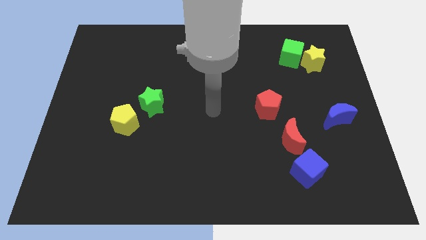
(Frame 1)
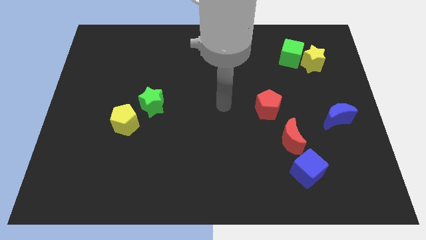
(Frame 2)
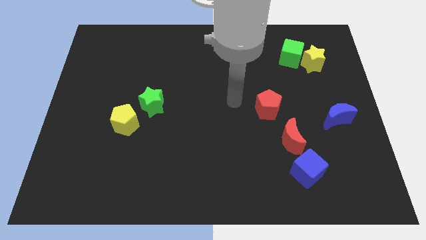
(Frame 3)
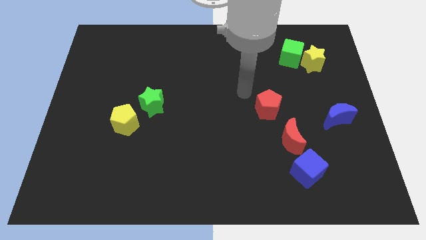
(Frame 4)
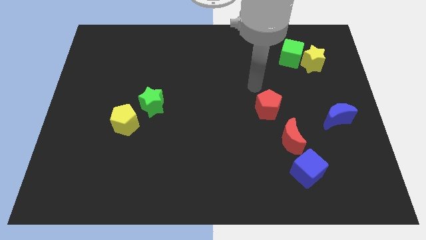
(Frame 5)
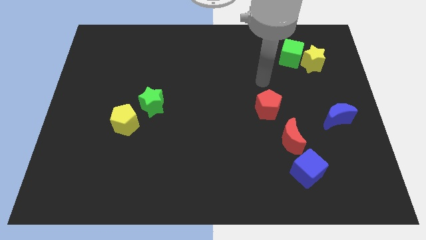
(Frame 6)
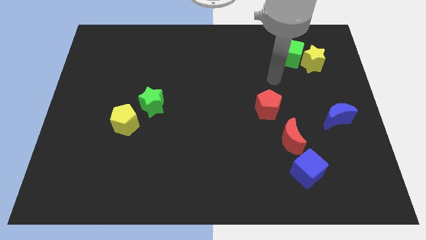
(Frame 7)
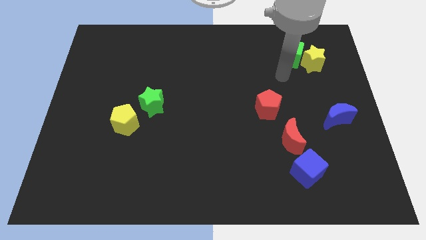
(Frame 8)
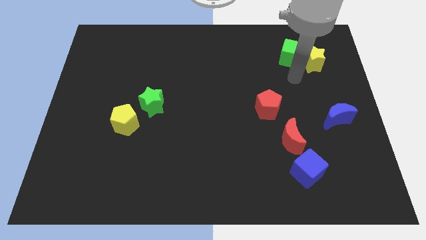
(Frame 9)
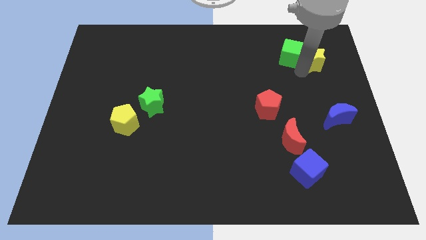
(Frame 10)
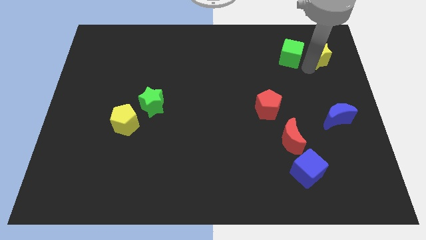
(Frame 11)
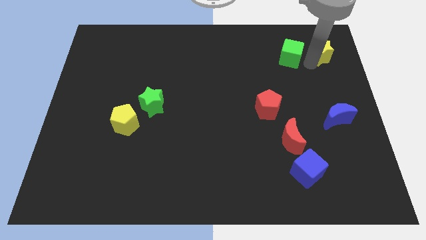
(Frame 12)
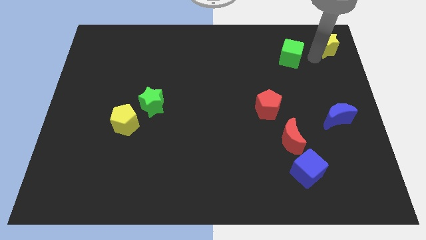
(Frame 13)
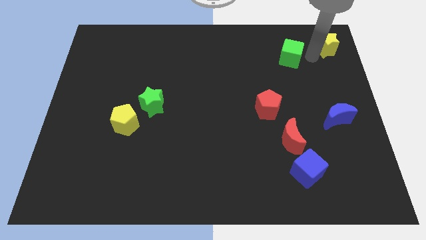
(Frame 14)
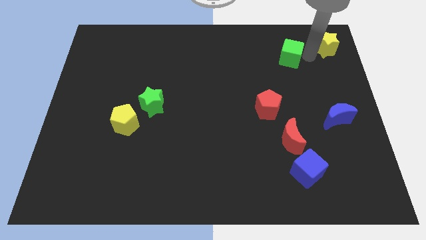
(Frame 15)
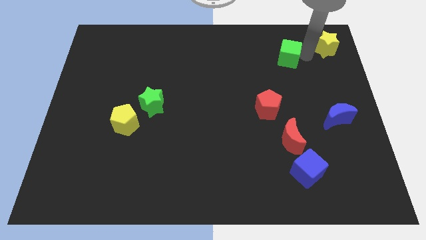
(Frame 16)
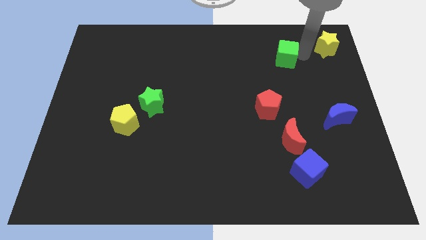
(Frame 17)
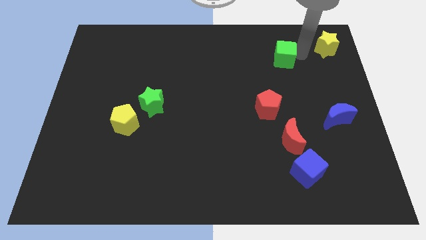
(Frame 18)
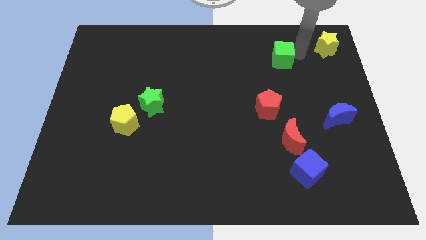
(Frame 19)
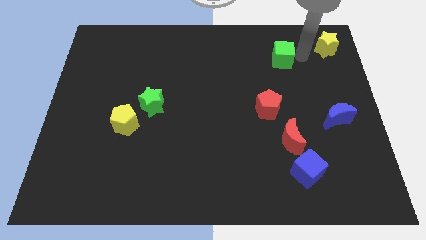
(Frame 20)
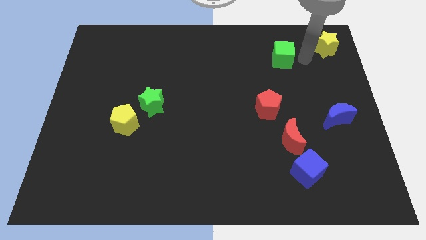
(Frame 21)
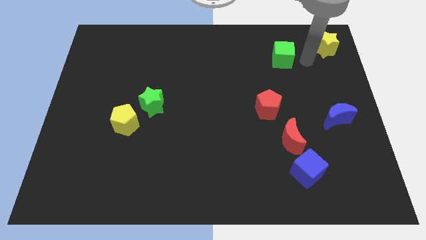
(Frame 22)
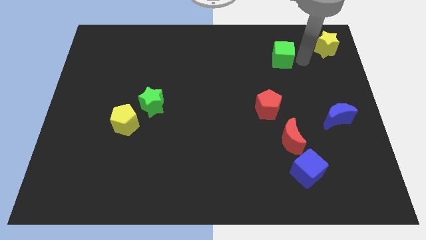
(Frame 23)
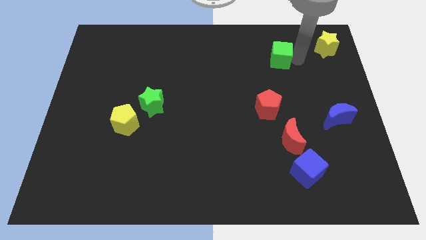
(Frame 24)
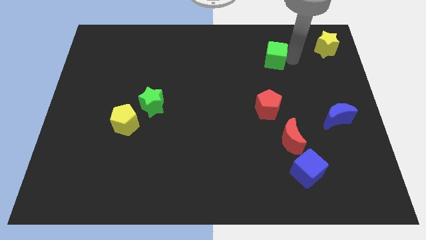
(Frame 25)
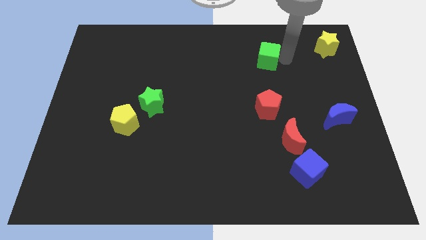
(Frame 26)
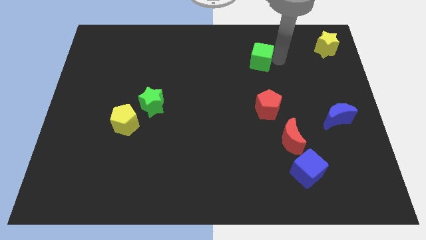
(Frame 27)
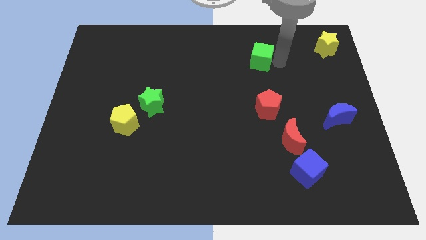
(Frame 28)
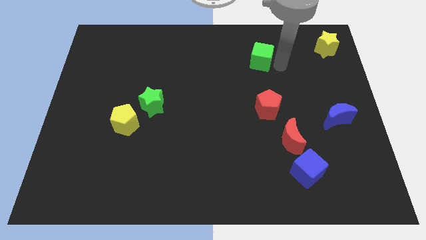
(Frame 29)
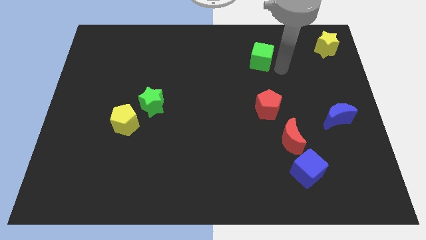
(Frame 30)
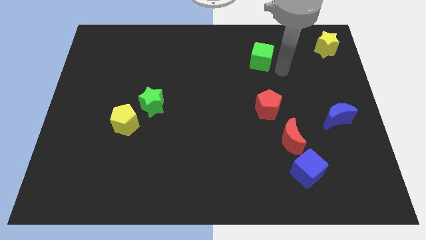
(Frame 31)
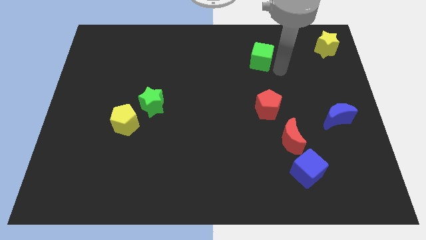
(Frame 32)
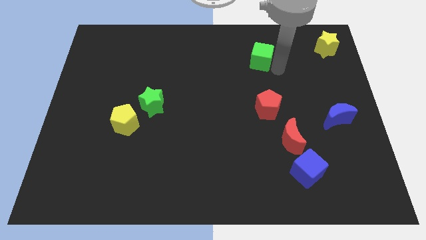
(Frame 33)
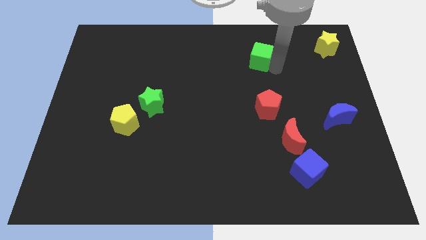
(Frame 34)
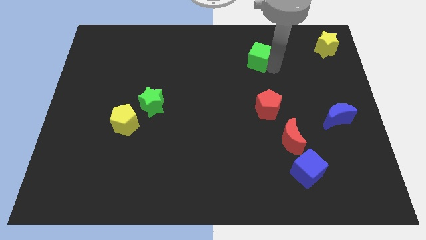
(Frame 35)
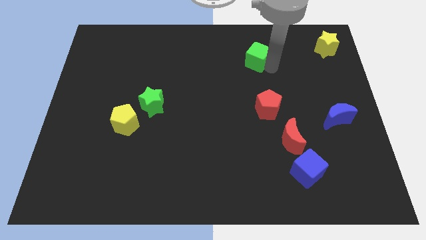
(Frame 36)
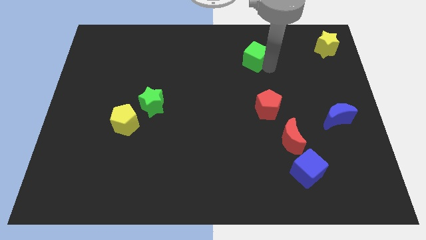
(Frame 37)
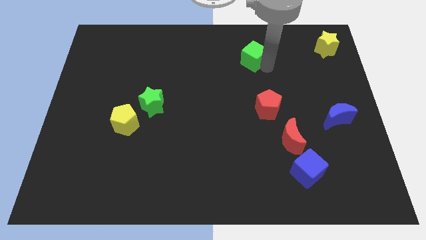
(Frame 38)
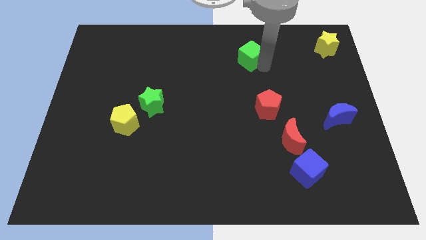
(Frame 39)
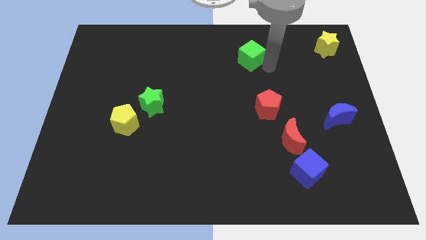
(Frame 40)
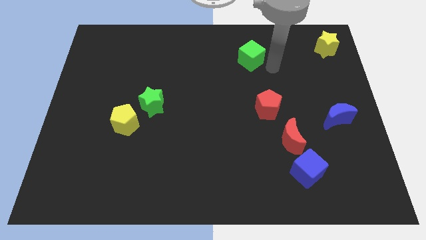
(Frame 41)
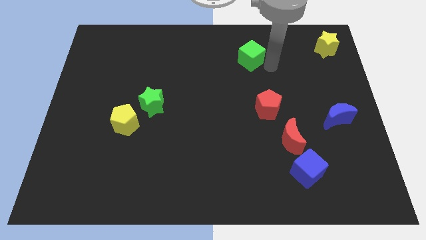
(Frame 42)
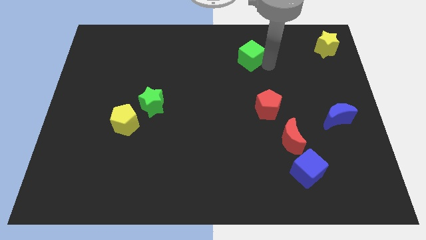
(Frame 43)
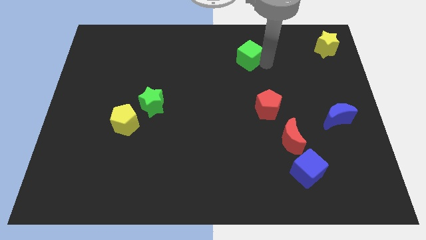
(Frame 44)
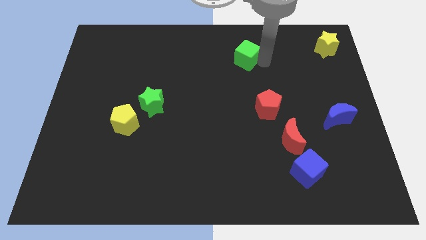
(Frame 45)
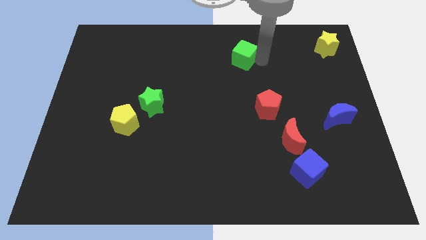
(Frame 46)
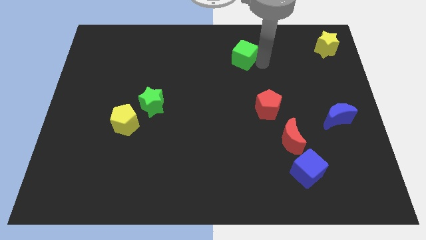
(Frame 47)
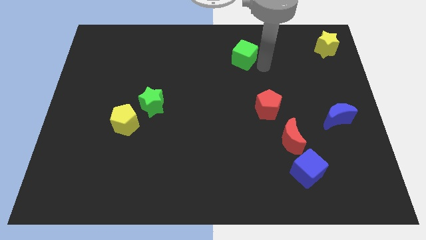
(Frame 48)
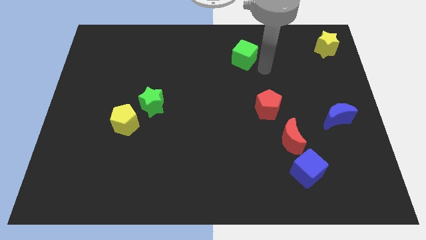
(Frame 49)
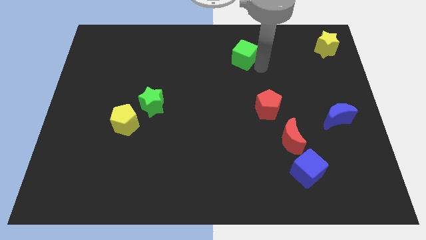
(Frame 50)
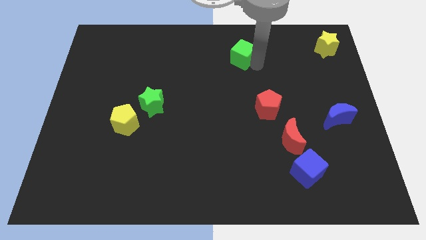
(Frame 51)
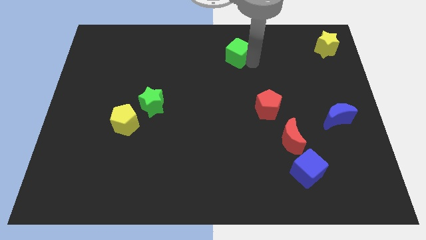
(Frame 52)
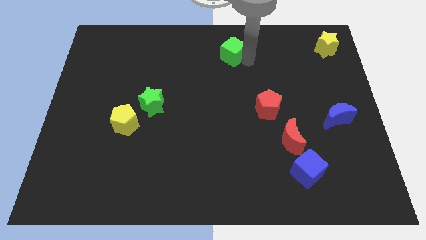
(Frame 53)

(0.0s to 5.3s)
move the green cube to the top

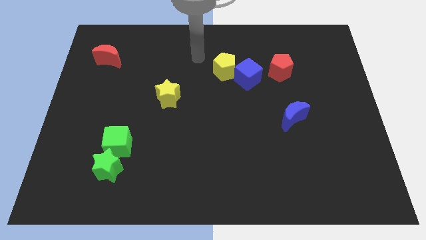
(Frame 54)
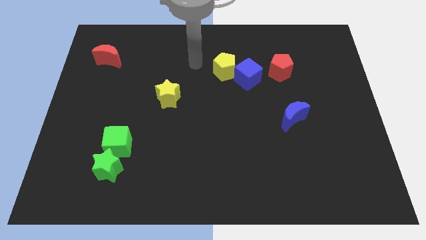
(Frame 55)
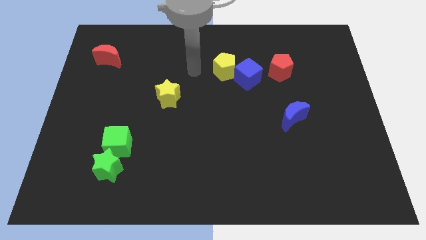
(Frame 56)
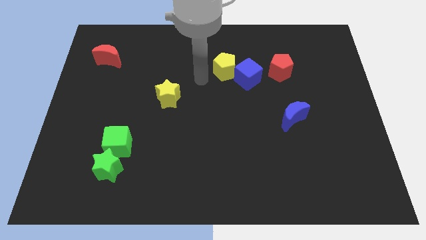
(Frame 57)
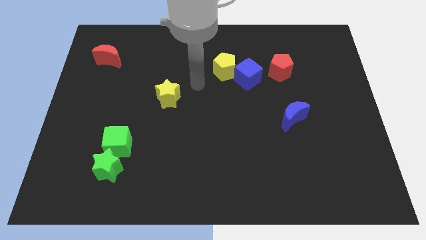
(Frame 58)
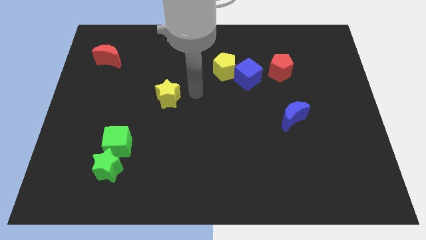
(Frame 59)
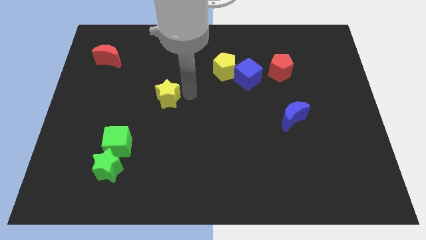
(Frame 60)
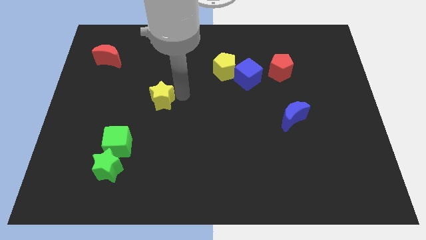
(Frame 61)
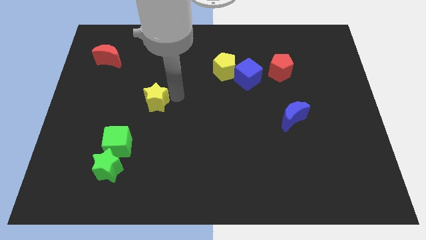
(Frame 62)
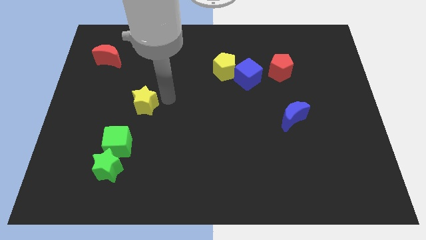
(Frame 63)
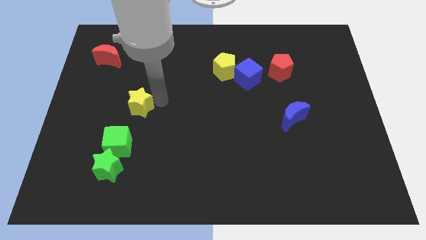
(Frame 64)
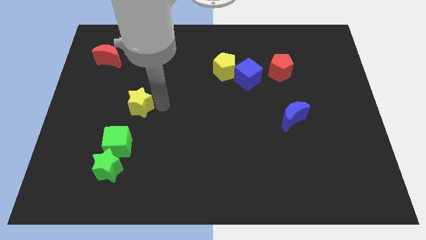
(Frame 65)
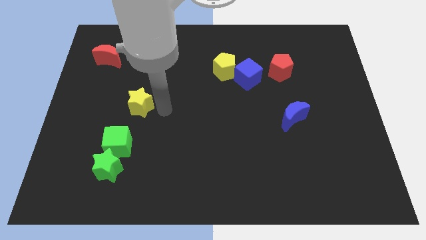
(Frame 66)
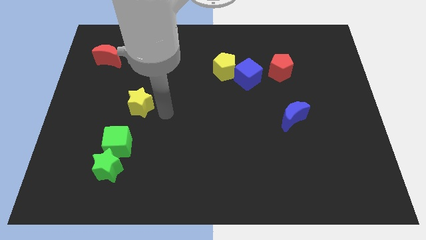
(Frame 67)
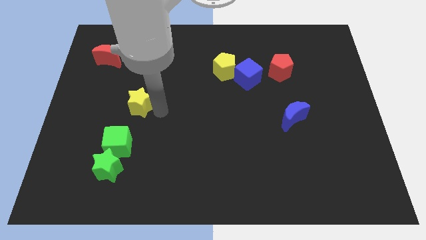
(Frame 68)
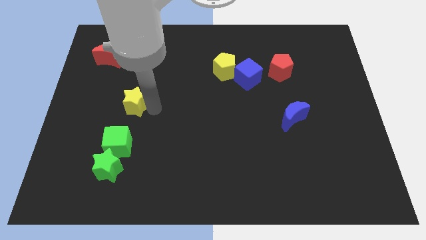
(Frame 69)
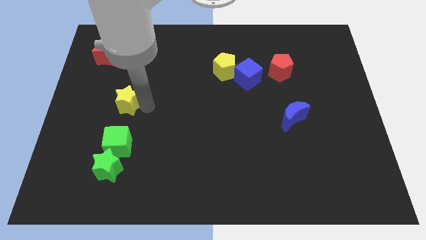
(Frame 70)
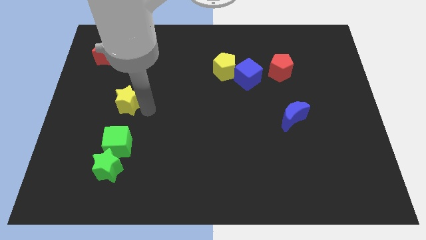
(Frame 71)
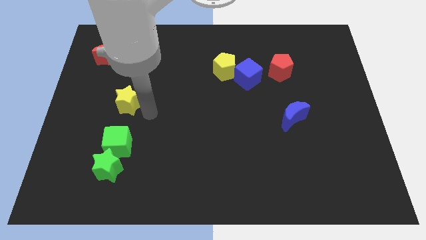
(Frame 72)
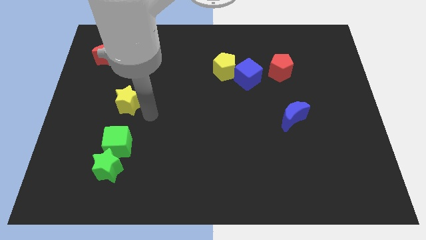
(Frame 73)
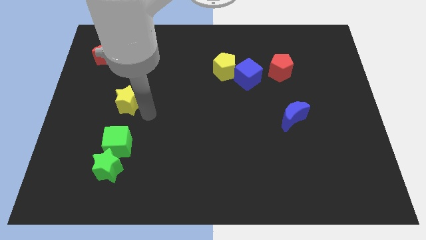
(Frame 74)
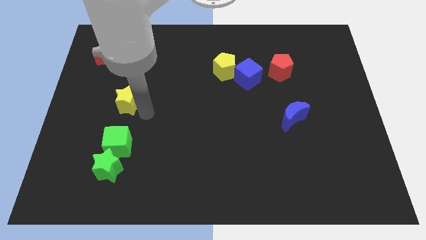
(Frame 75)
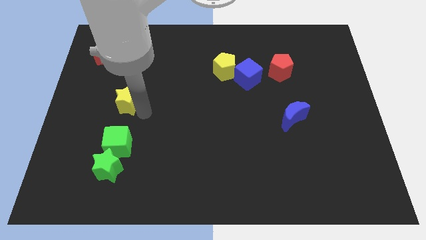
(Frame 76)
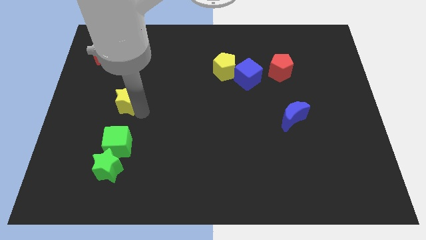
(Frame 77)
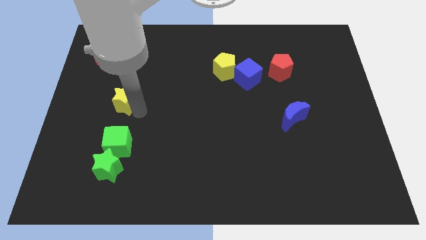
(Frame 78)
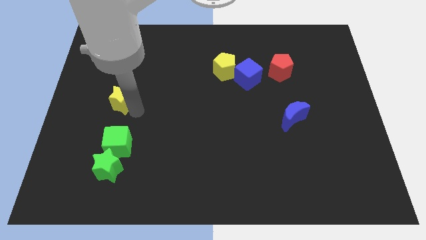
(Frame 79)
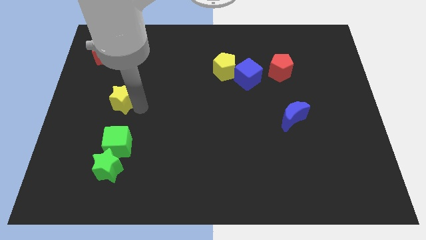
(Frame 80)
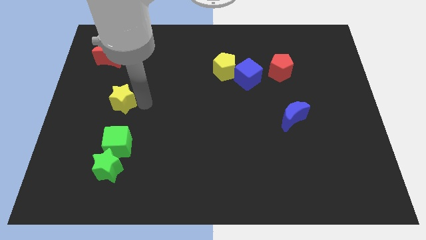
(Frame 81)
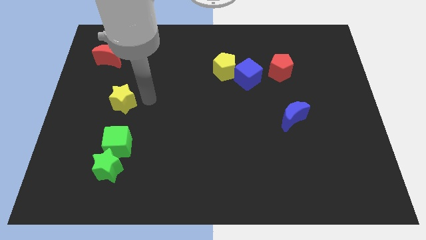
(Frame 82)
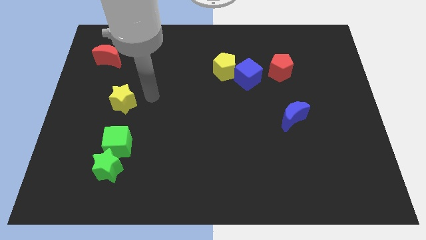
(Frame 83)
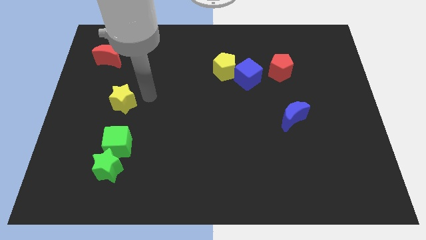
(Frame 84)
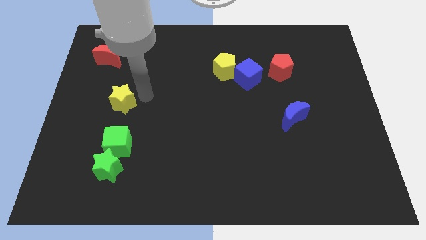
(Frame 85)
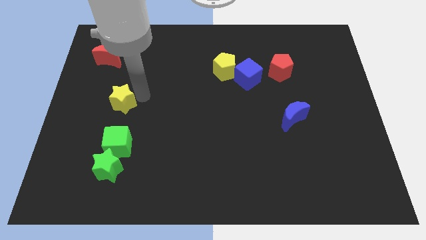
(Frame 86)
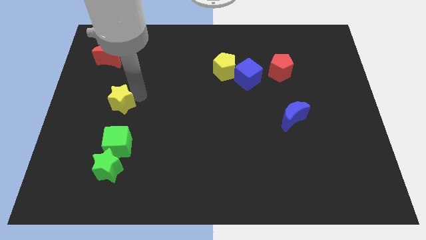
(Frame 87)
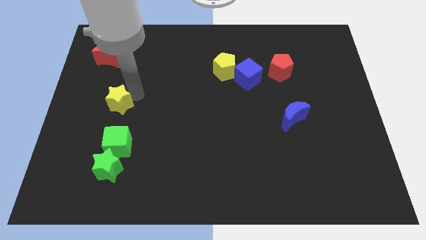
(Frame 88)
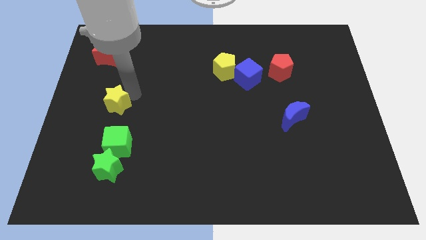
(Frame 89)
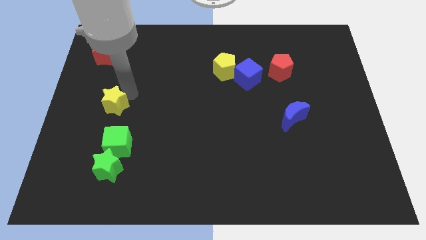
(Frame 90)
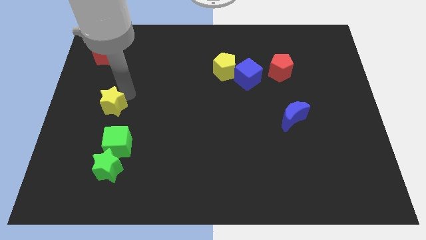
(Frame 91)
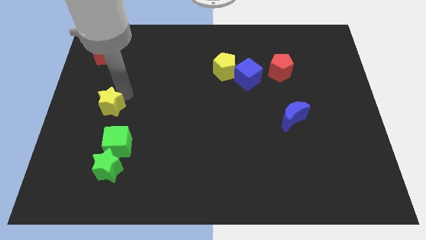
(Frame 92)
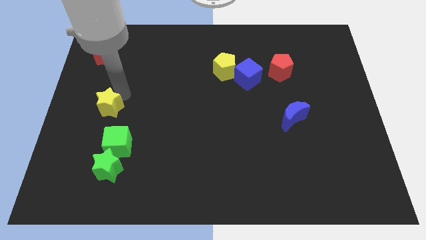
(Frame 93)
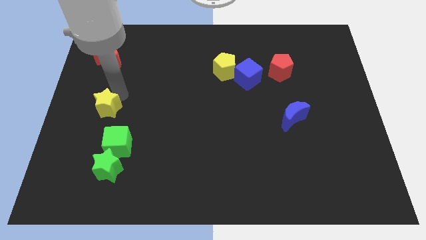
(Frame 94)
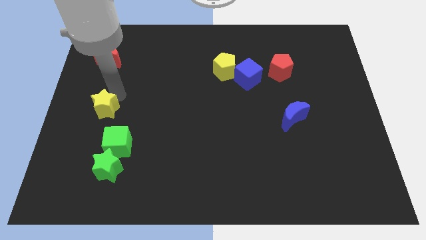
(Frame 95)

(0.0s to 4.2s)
push the yellow star to the left side
